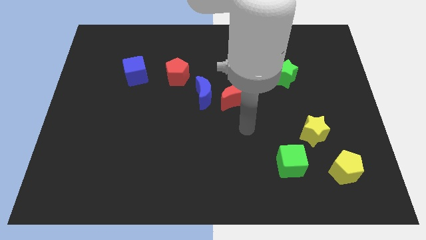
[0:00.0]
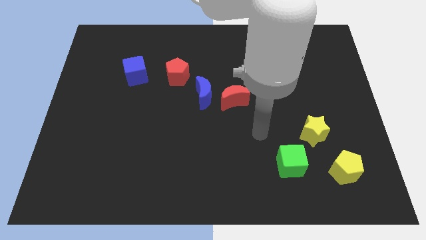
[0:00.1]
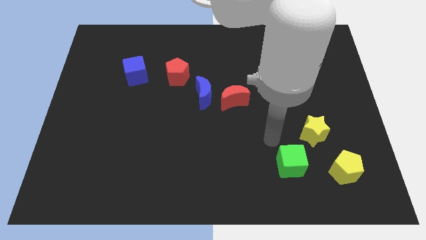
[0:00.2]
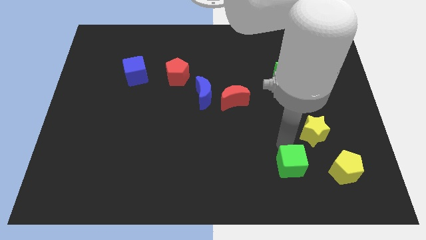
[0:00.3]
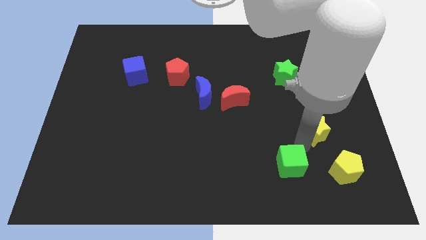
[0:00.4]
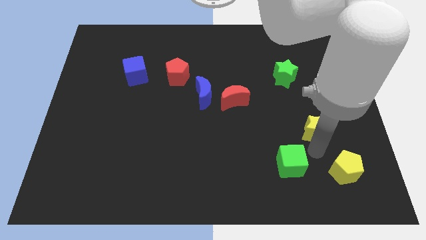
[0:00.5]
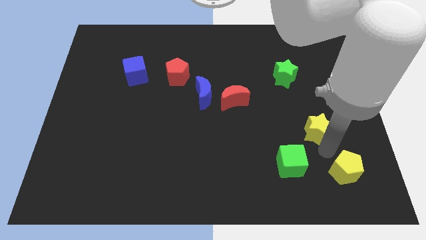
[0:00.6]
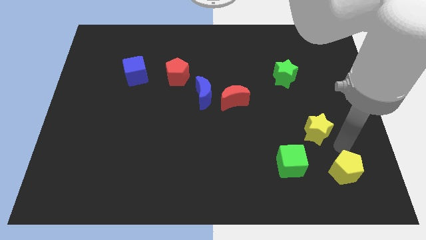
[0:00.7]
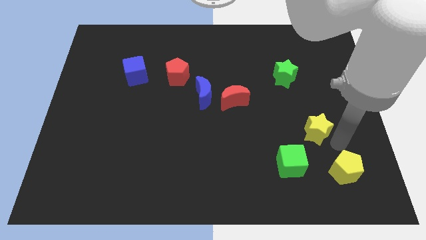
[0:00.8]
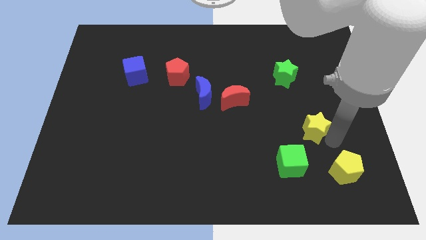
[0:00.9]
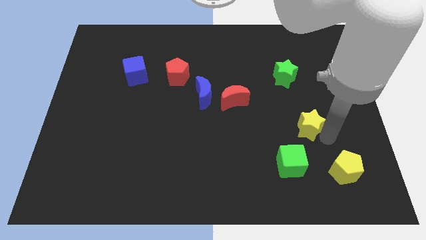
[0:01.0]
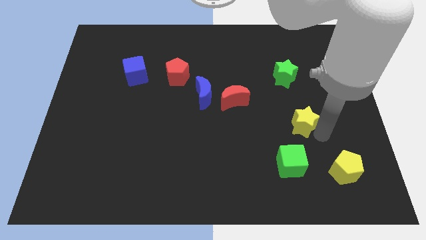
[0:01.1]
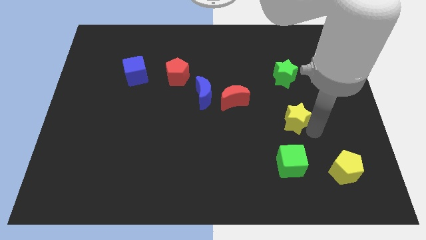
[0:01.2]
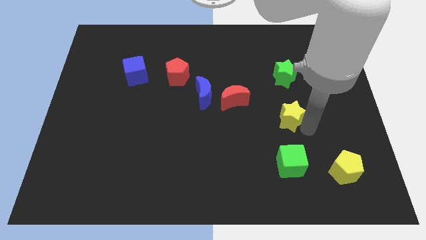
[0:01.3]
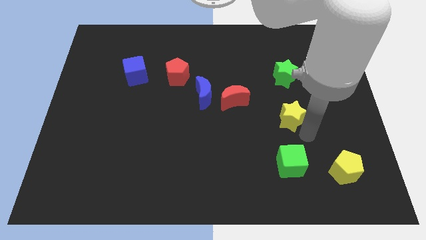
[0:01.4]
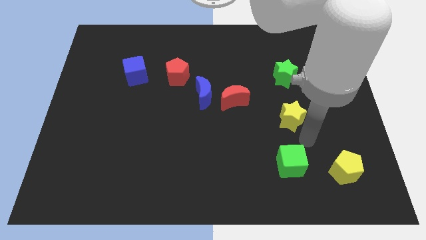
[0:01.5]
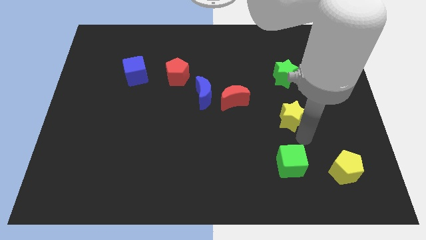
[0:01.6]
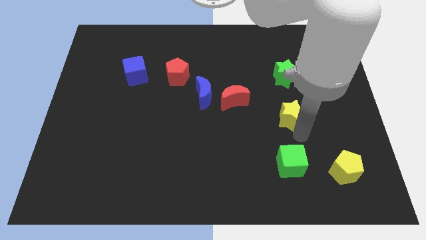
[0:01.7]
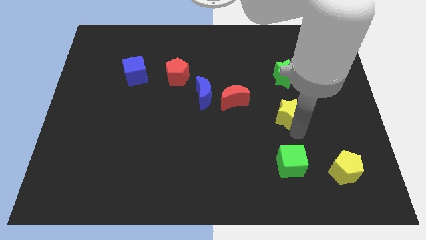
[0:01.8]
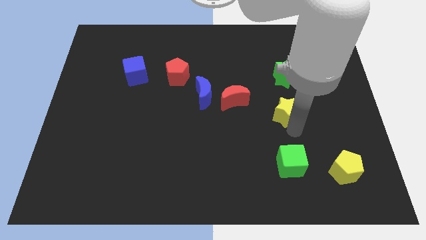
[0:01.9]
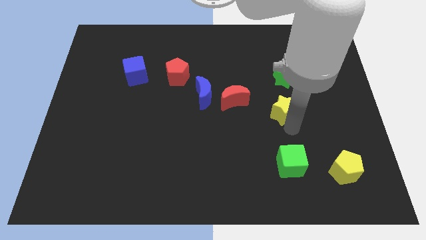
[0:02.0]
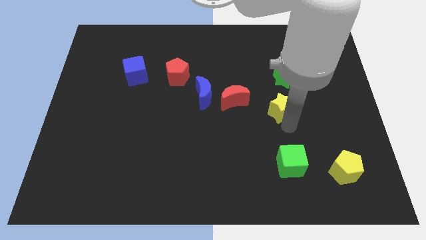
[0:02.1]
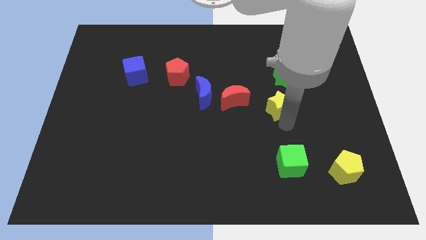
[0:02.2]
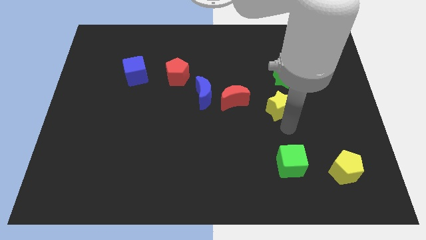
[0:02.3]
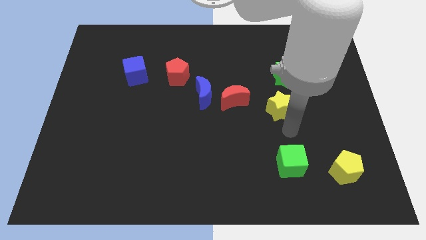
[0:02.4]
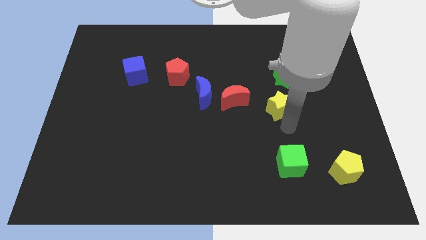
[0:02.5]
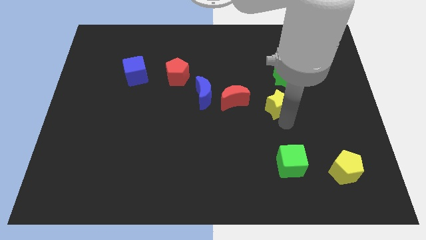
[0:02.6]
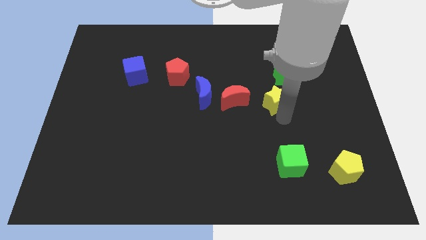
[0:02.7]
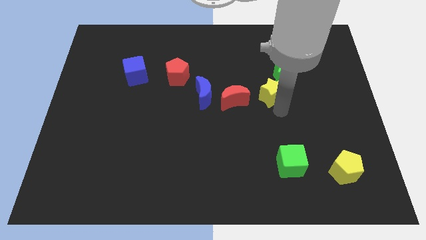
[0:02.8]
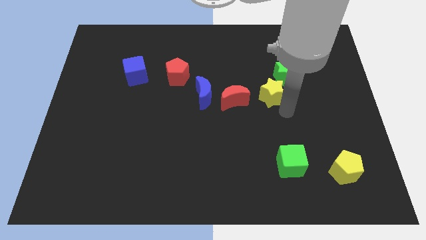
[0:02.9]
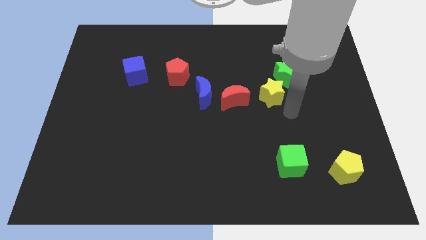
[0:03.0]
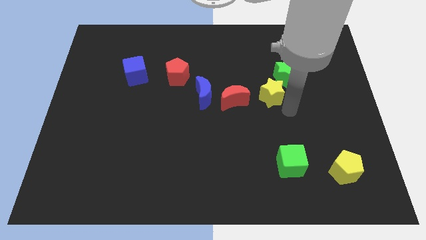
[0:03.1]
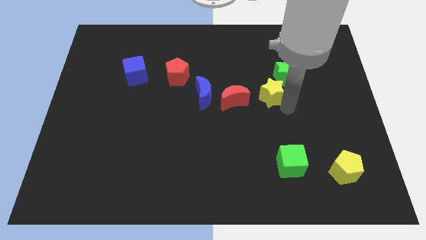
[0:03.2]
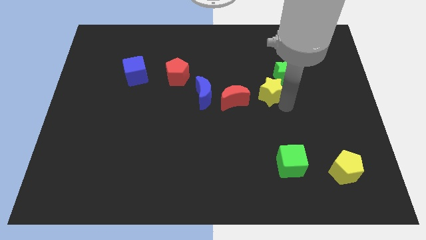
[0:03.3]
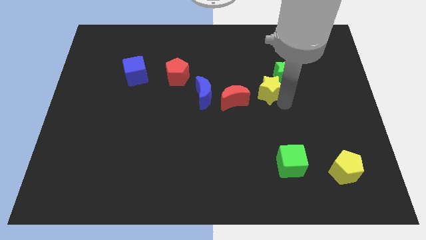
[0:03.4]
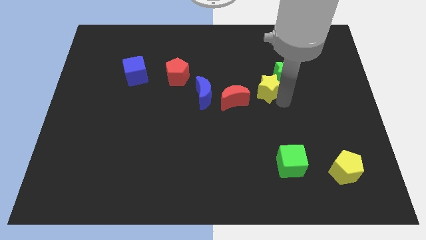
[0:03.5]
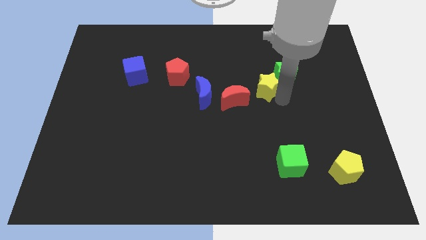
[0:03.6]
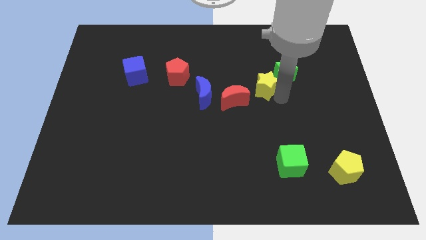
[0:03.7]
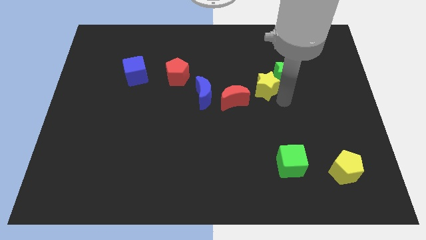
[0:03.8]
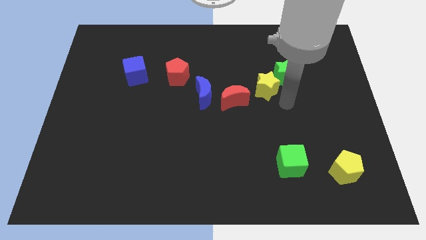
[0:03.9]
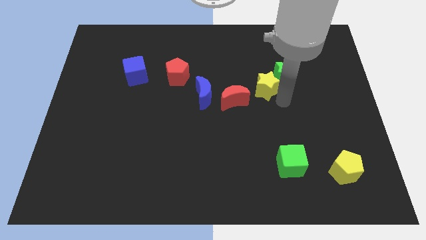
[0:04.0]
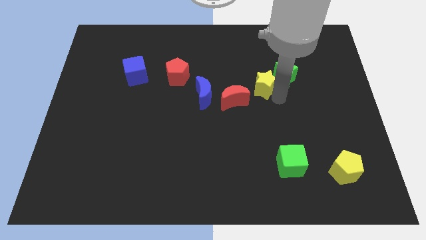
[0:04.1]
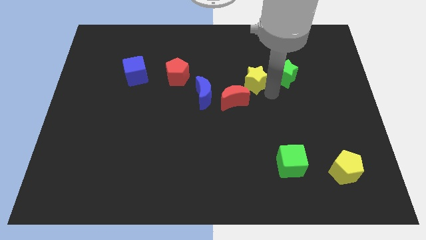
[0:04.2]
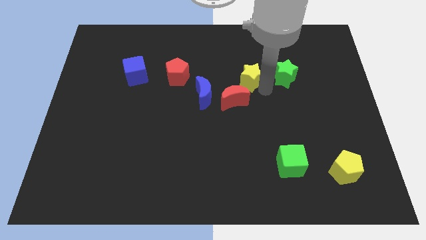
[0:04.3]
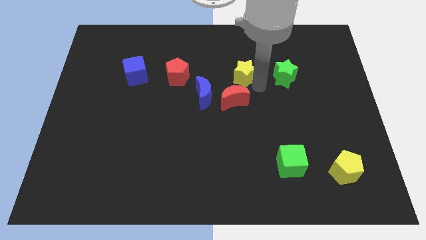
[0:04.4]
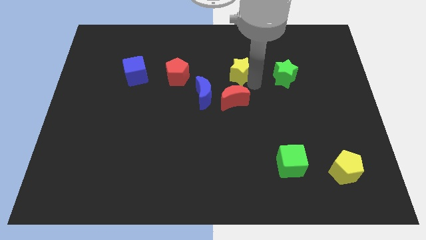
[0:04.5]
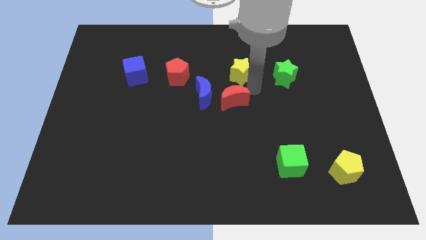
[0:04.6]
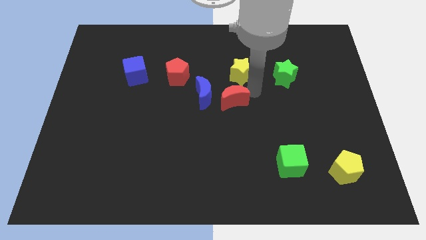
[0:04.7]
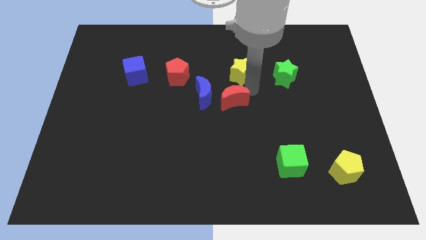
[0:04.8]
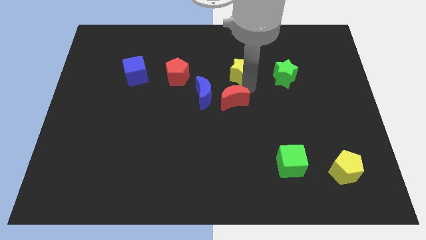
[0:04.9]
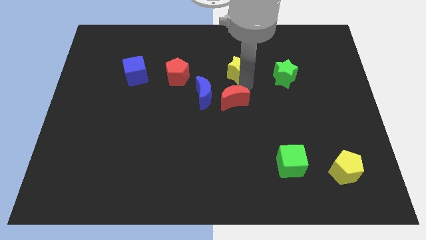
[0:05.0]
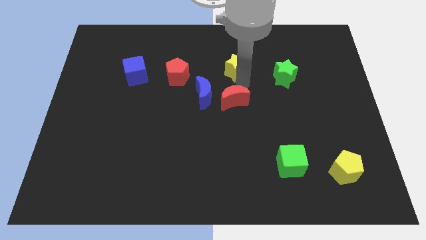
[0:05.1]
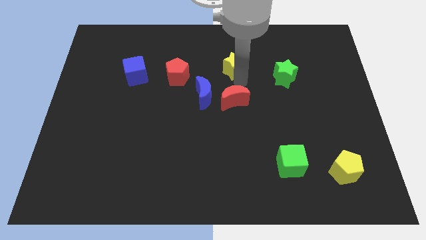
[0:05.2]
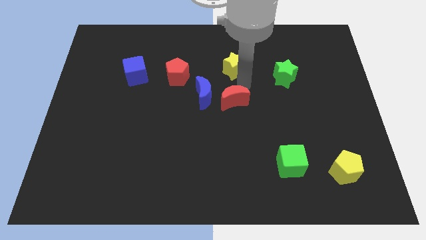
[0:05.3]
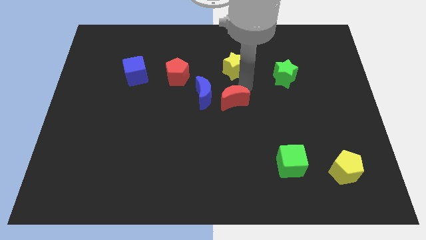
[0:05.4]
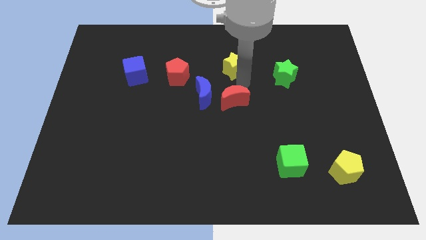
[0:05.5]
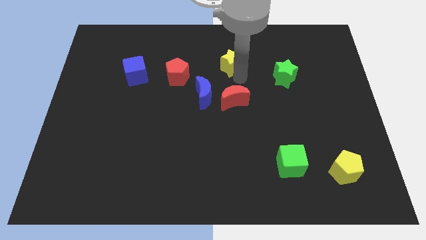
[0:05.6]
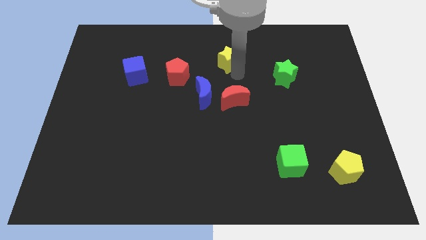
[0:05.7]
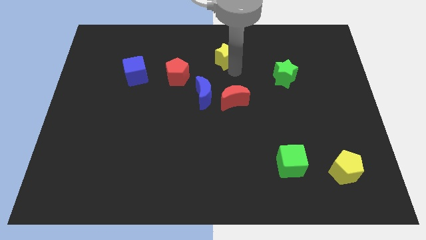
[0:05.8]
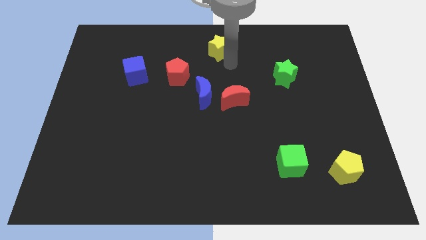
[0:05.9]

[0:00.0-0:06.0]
slide the yellow star to the top side

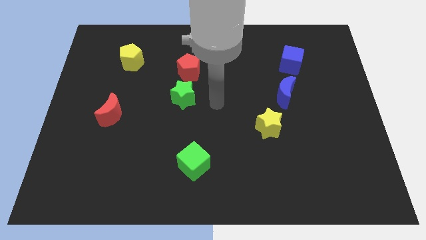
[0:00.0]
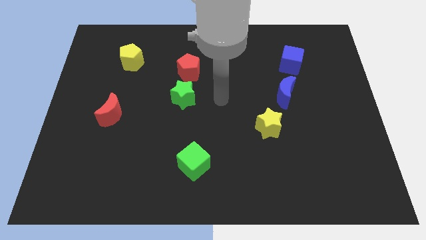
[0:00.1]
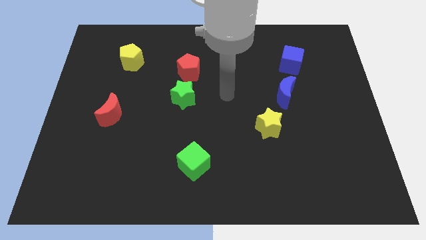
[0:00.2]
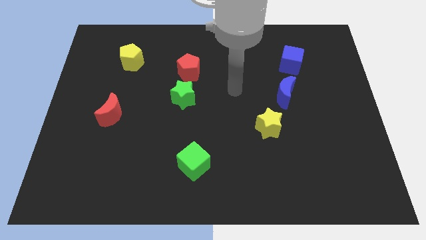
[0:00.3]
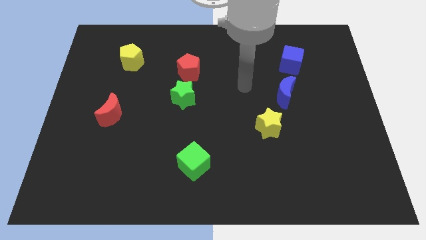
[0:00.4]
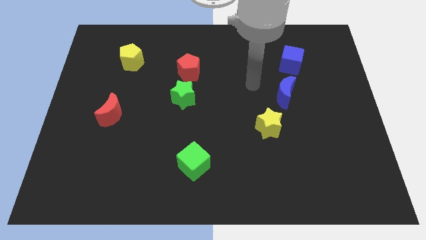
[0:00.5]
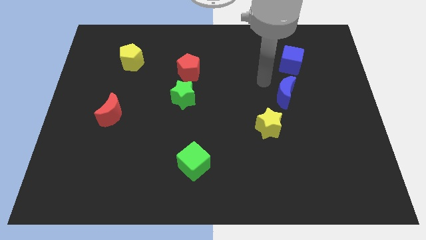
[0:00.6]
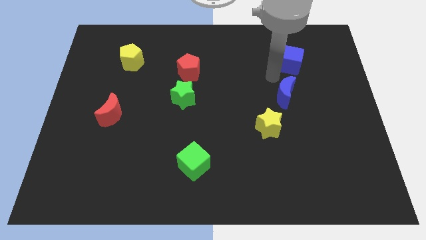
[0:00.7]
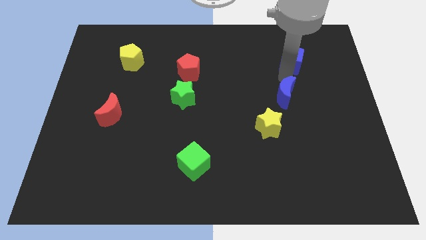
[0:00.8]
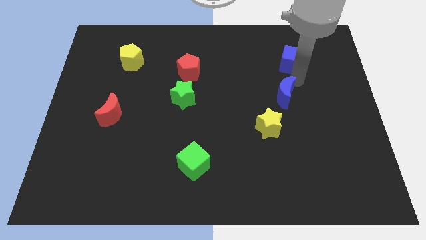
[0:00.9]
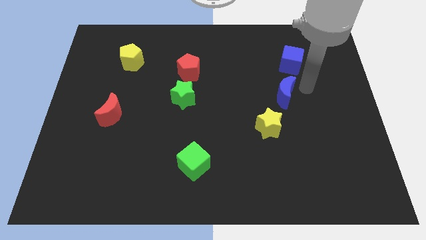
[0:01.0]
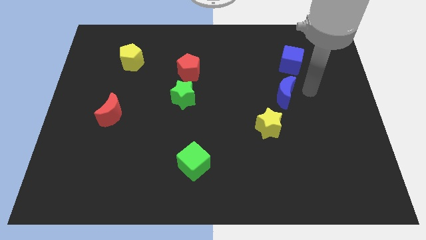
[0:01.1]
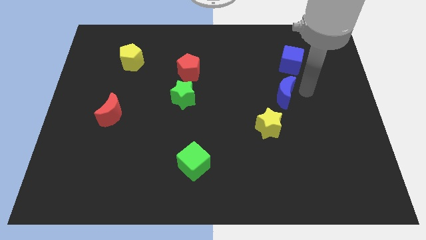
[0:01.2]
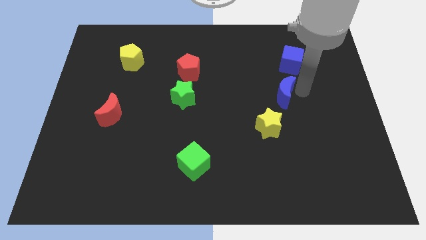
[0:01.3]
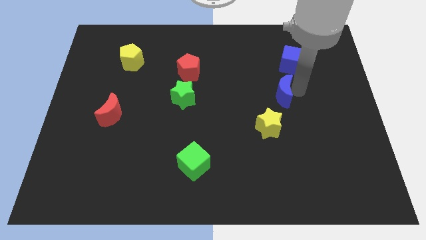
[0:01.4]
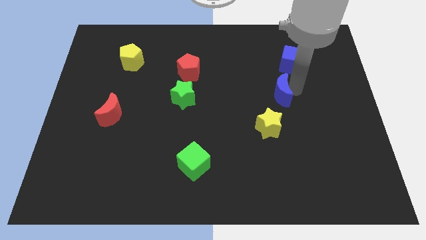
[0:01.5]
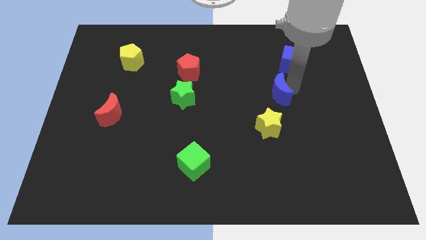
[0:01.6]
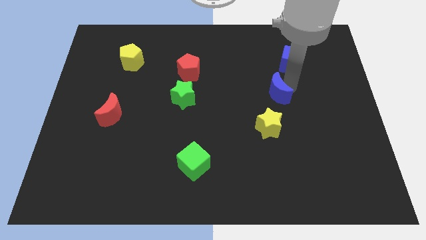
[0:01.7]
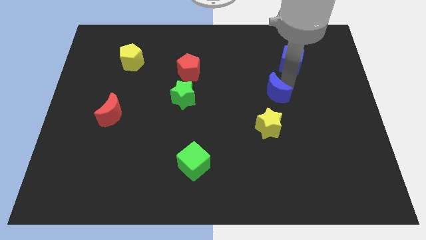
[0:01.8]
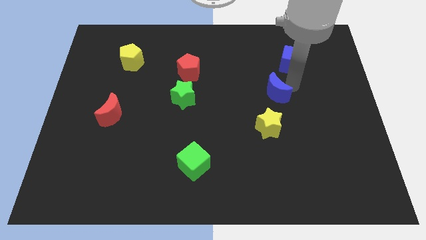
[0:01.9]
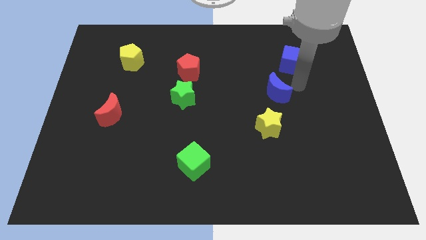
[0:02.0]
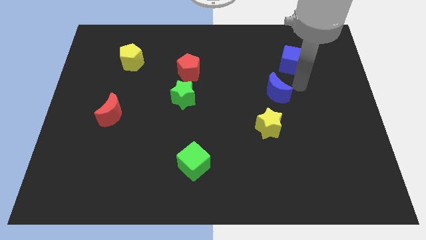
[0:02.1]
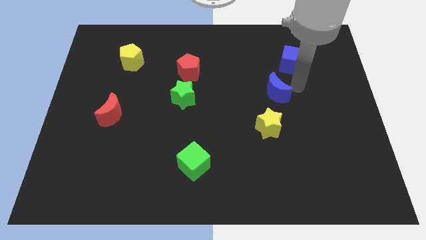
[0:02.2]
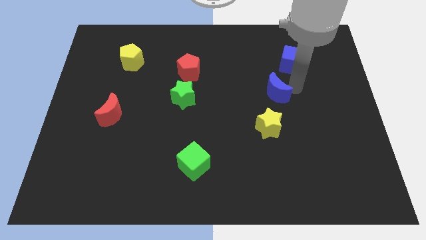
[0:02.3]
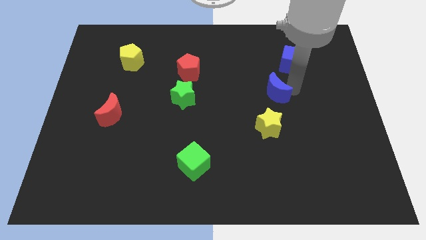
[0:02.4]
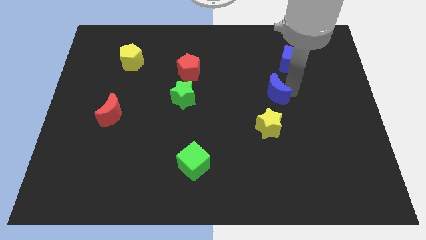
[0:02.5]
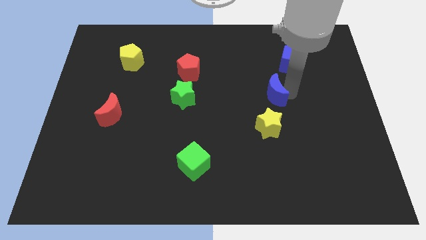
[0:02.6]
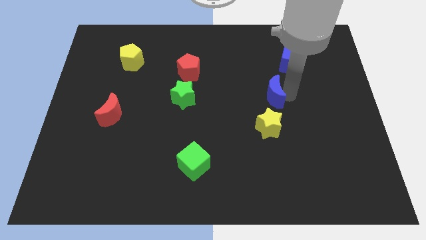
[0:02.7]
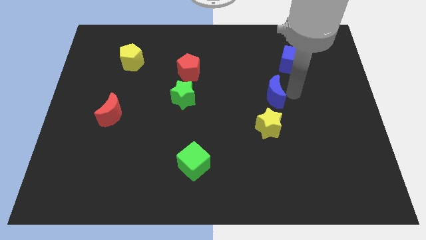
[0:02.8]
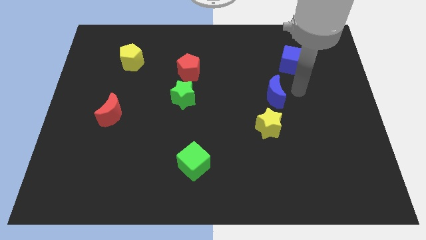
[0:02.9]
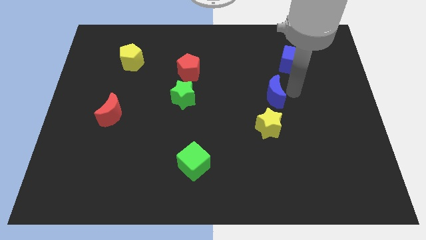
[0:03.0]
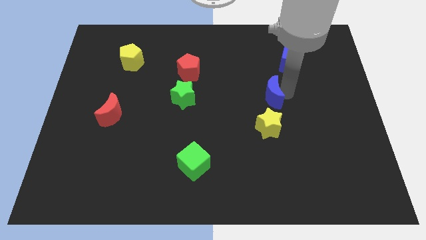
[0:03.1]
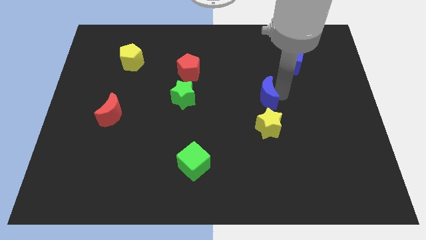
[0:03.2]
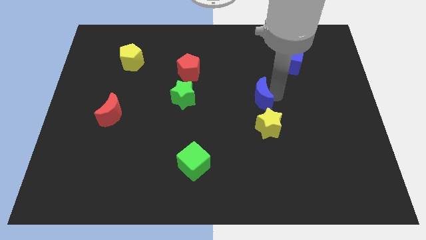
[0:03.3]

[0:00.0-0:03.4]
put the blue moon to the middle
